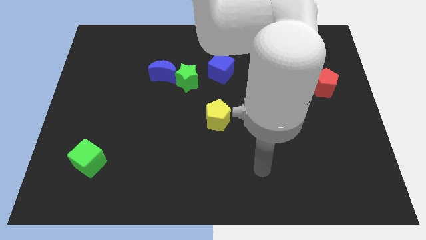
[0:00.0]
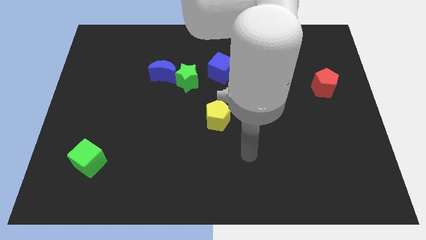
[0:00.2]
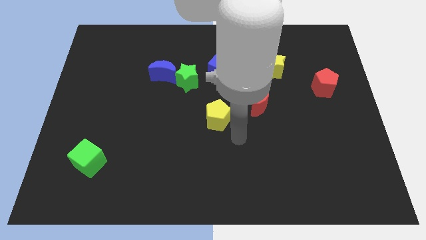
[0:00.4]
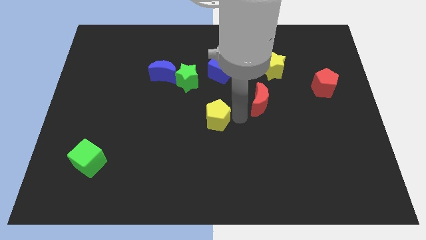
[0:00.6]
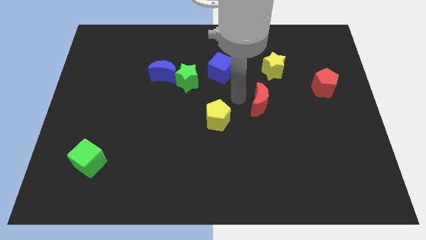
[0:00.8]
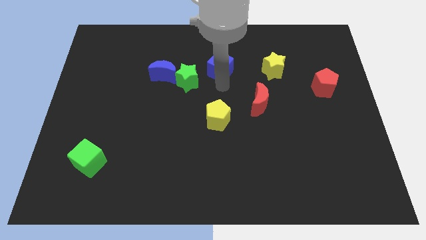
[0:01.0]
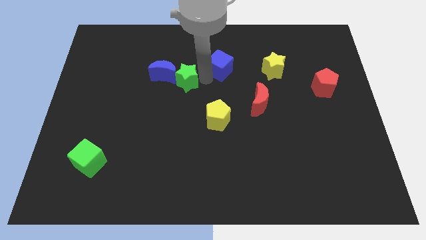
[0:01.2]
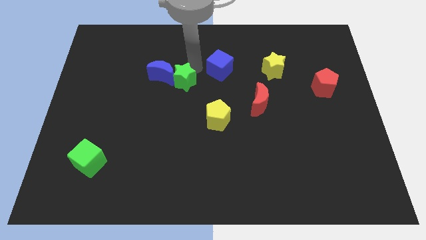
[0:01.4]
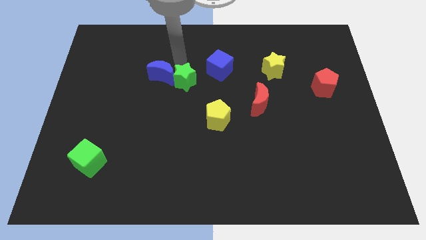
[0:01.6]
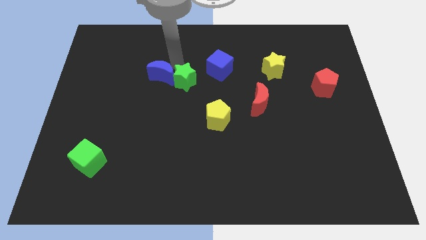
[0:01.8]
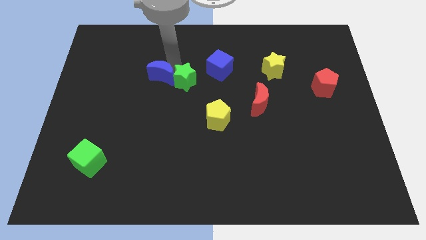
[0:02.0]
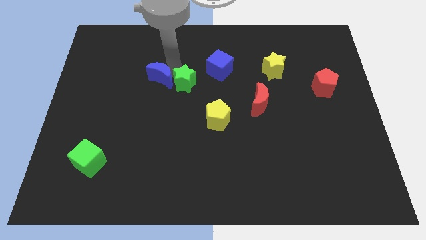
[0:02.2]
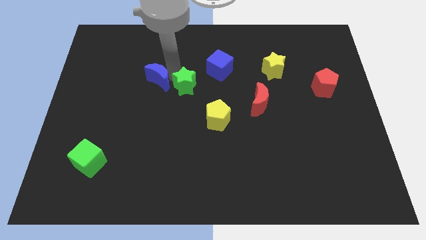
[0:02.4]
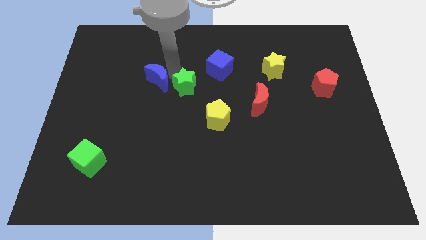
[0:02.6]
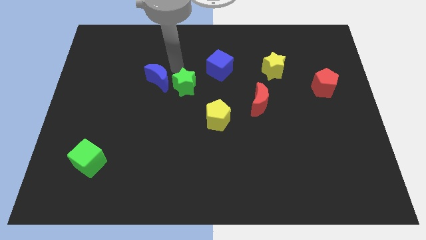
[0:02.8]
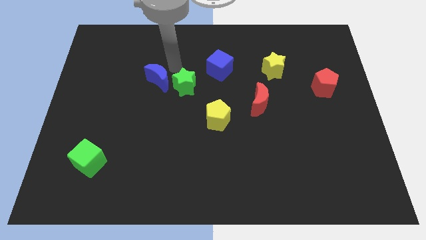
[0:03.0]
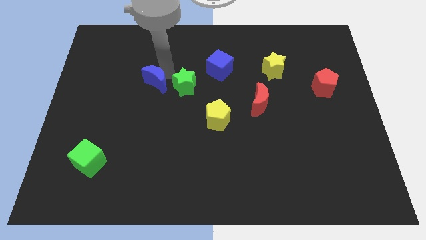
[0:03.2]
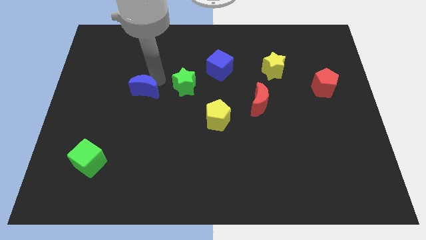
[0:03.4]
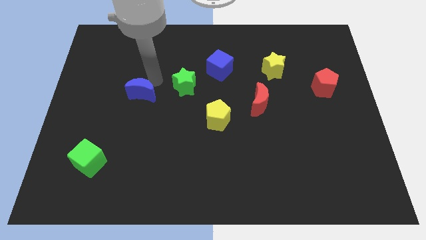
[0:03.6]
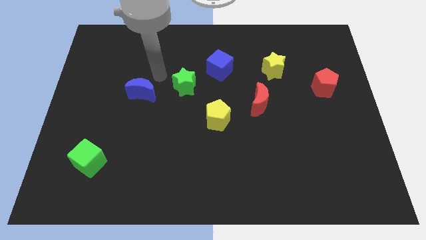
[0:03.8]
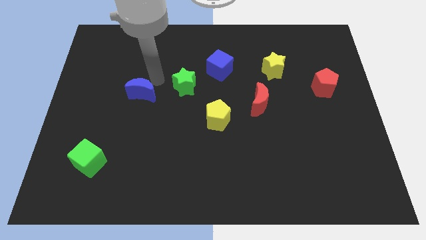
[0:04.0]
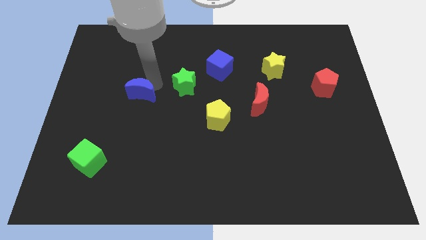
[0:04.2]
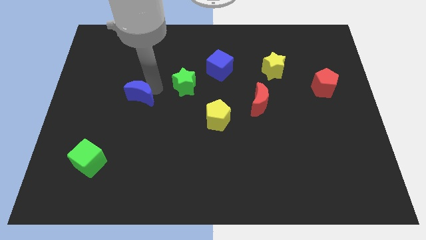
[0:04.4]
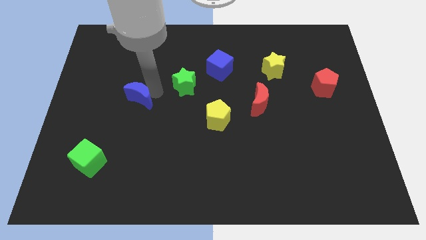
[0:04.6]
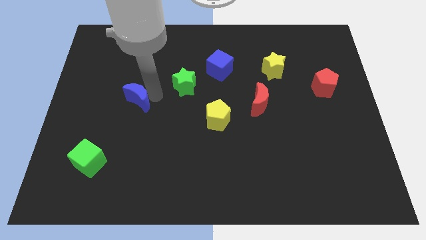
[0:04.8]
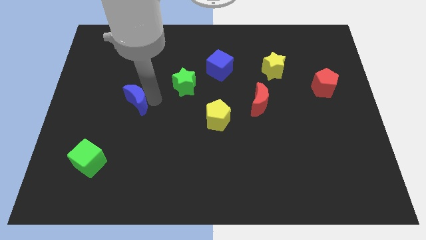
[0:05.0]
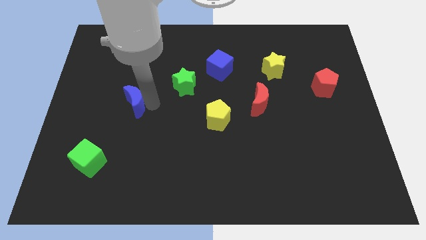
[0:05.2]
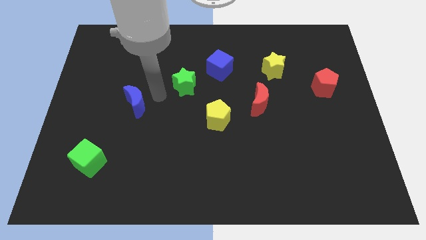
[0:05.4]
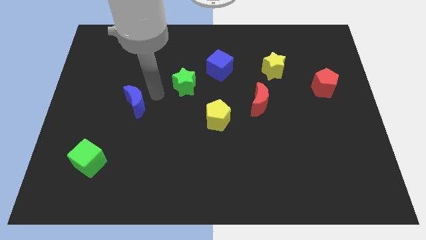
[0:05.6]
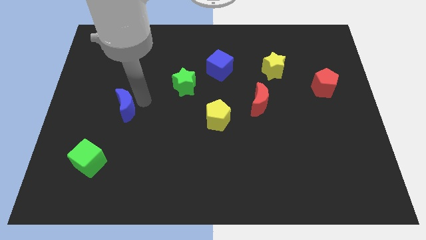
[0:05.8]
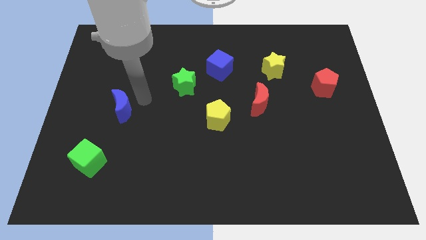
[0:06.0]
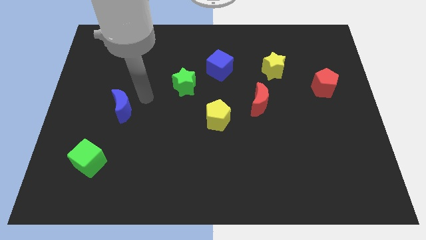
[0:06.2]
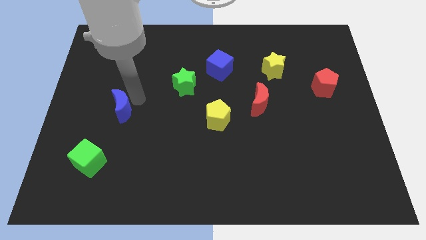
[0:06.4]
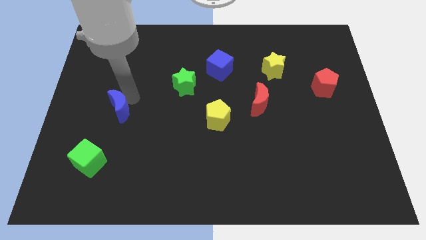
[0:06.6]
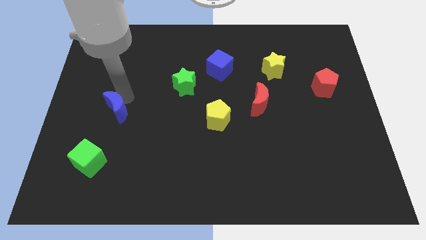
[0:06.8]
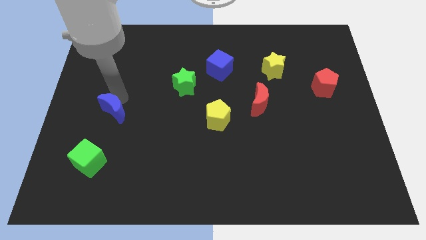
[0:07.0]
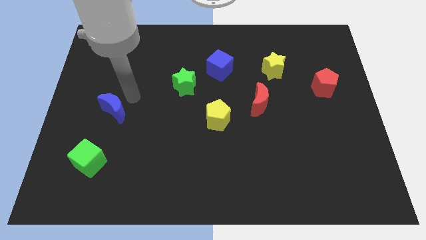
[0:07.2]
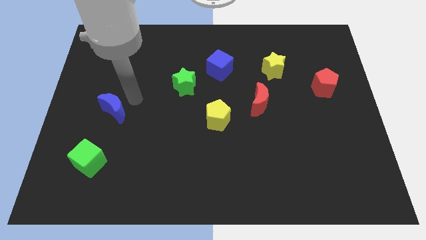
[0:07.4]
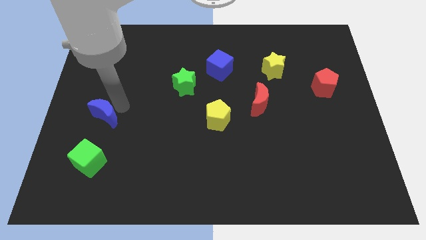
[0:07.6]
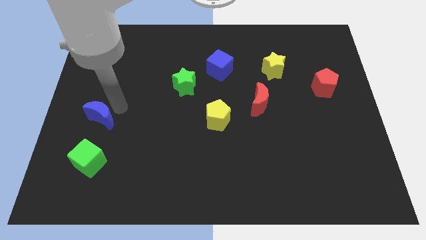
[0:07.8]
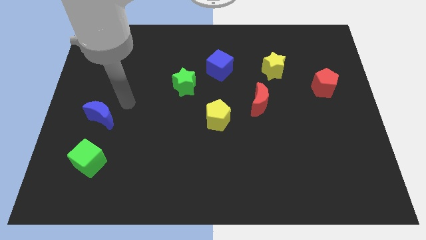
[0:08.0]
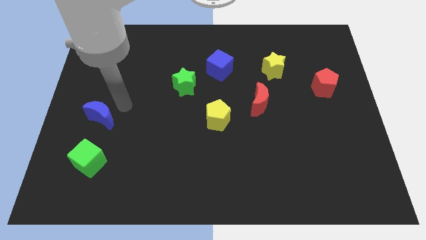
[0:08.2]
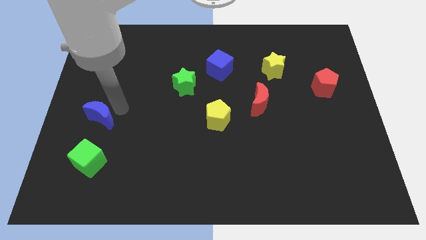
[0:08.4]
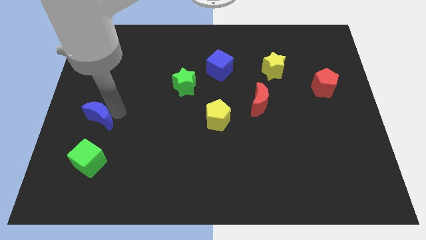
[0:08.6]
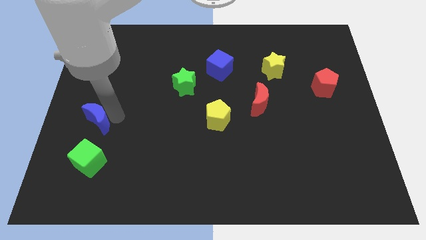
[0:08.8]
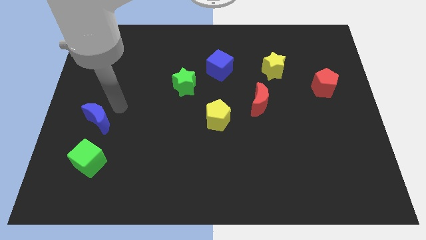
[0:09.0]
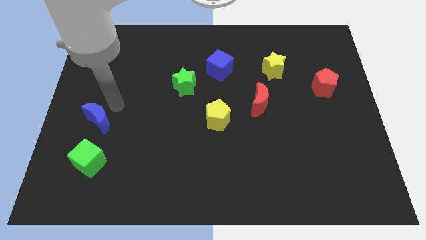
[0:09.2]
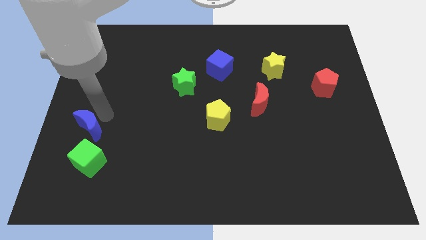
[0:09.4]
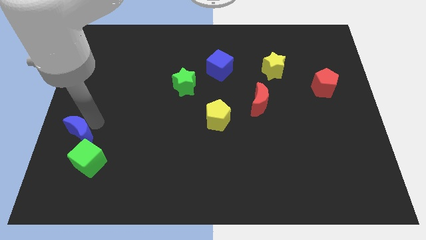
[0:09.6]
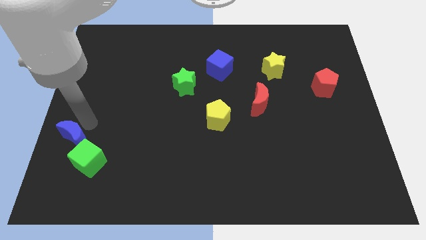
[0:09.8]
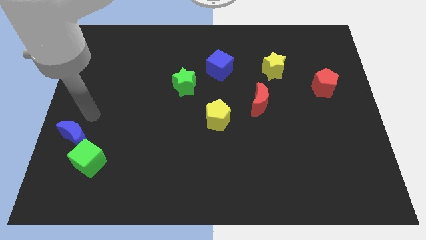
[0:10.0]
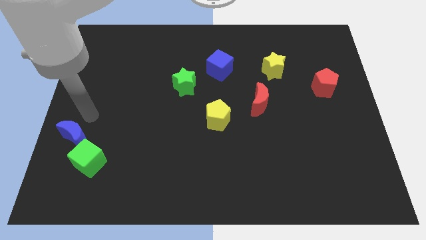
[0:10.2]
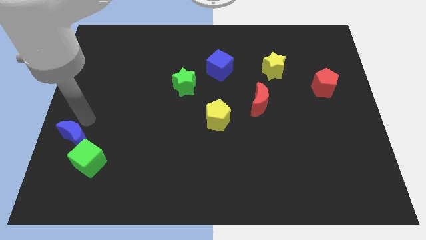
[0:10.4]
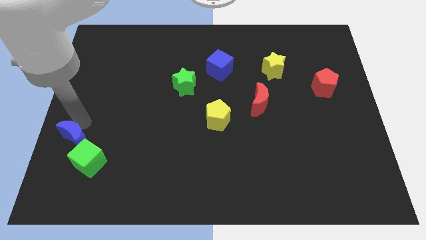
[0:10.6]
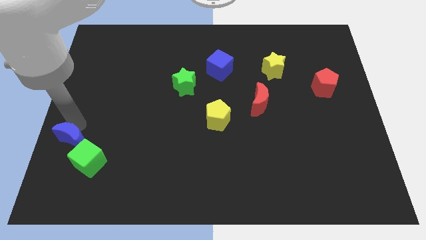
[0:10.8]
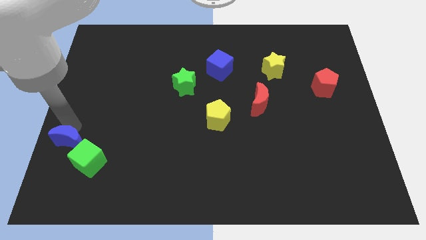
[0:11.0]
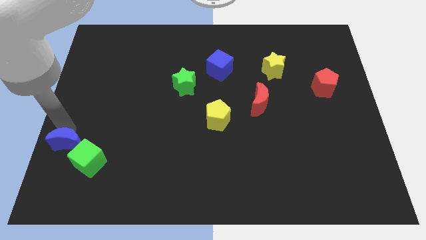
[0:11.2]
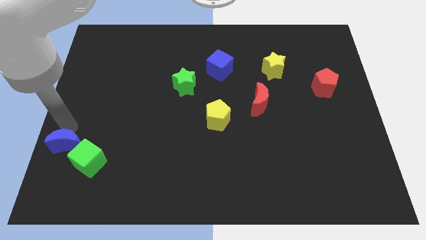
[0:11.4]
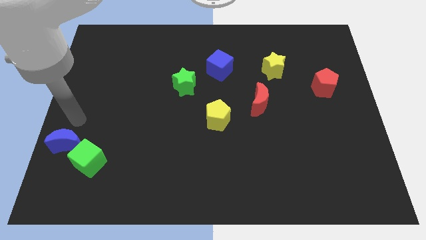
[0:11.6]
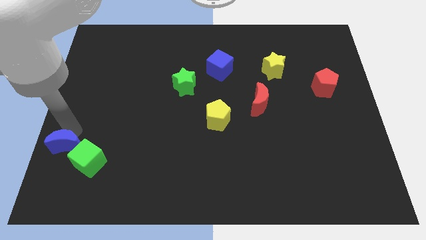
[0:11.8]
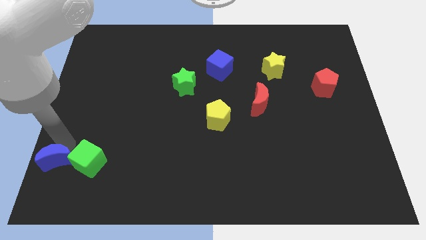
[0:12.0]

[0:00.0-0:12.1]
slide the blue moon to the bottom left corner
